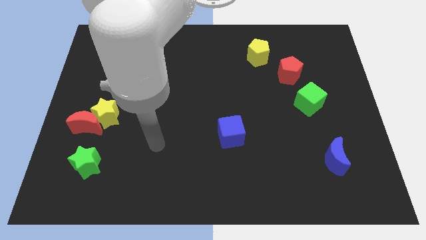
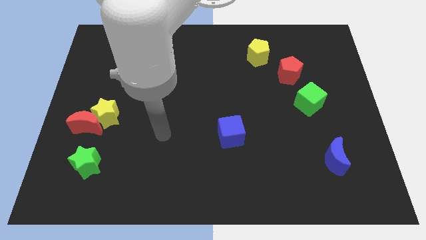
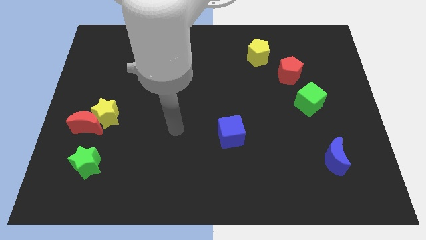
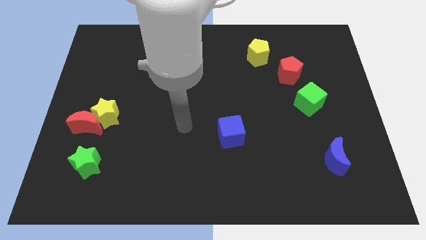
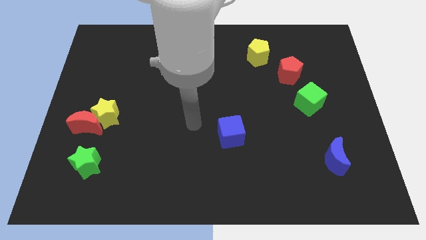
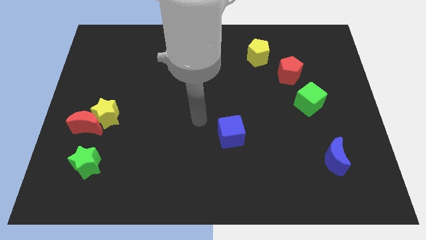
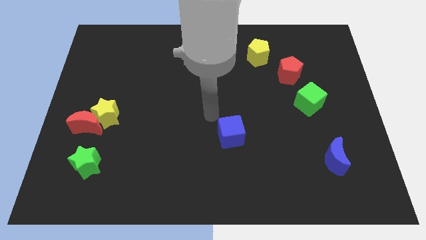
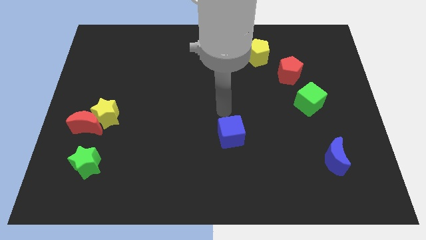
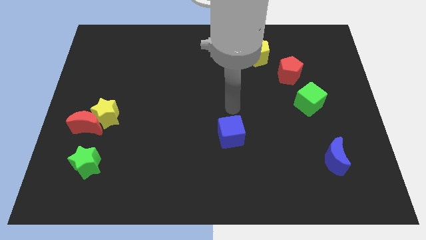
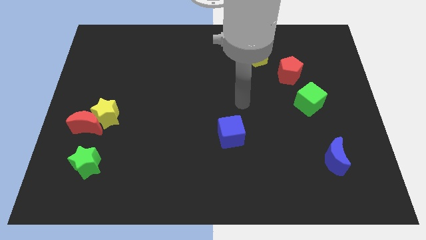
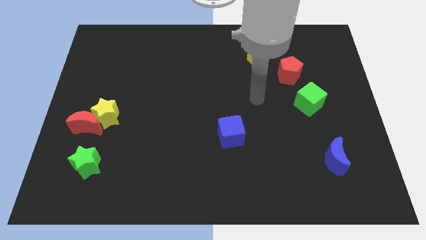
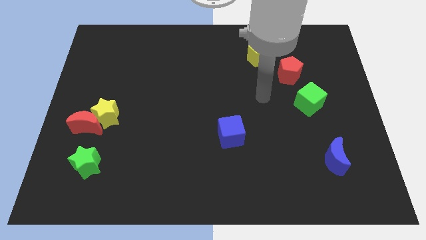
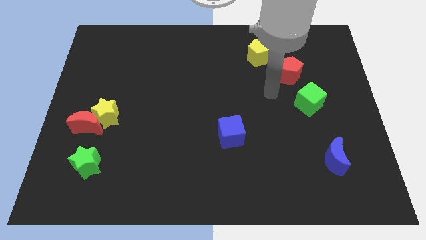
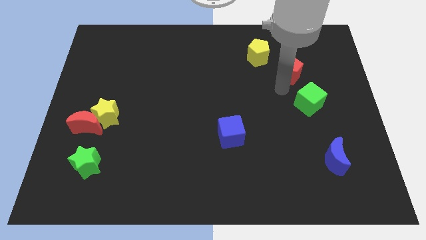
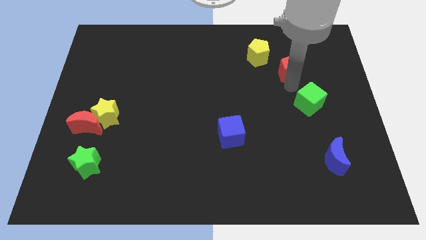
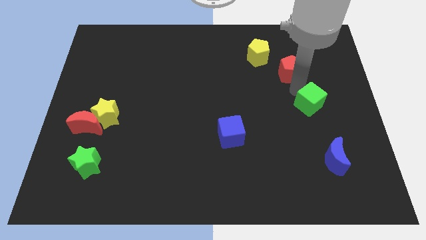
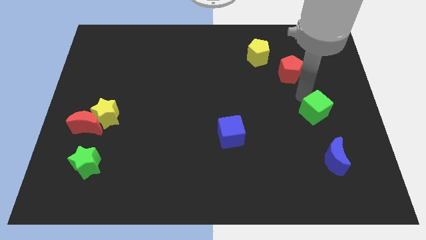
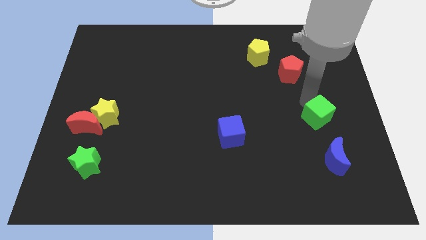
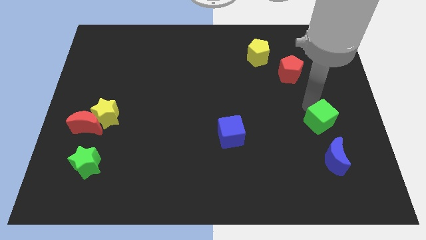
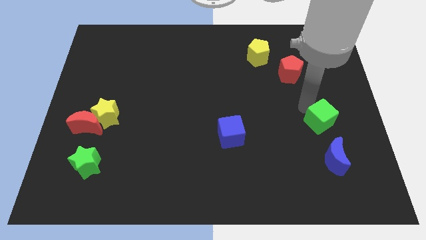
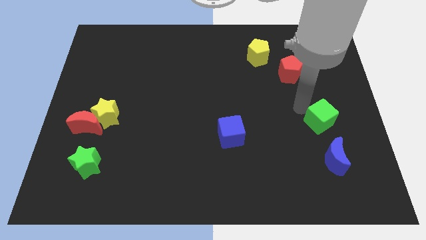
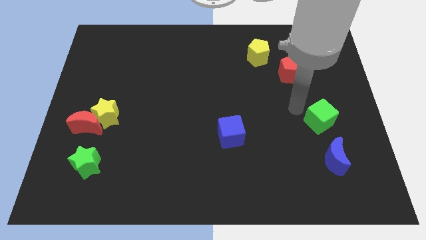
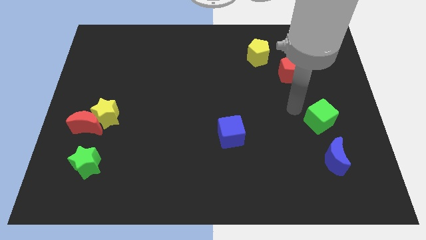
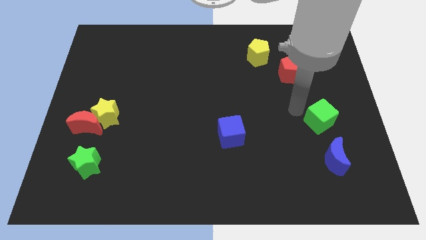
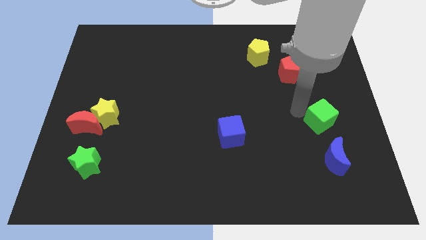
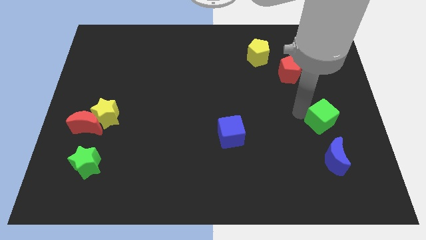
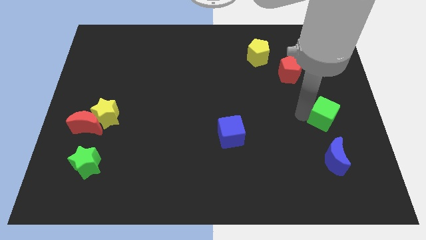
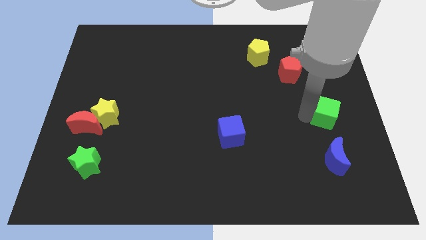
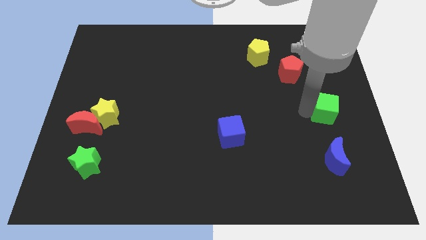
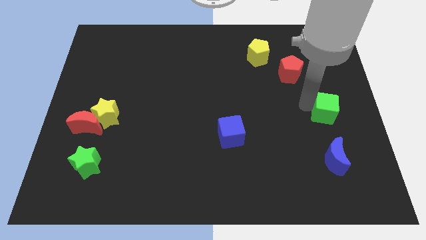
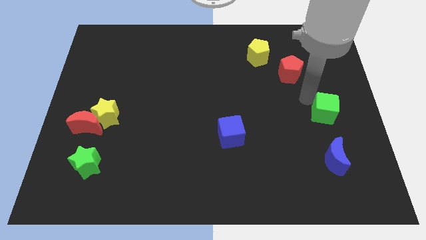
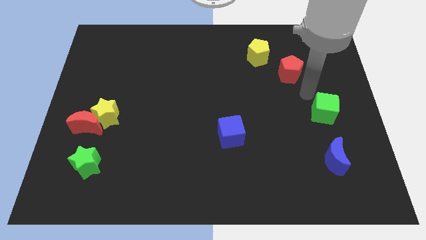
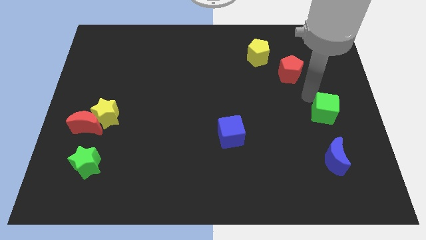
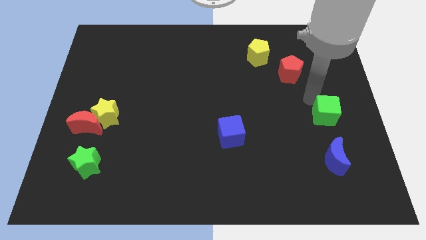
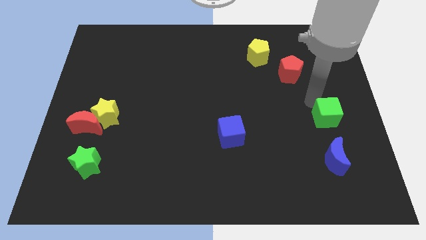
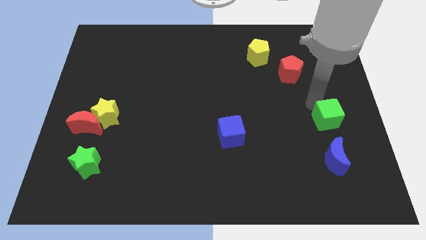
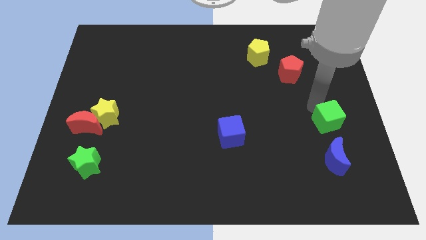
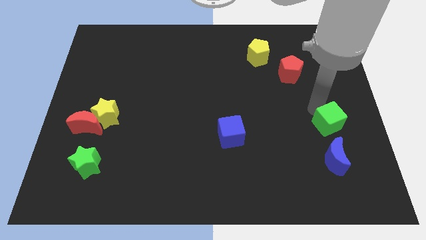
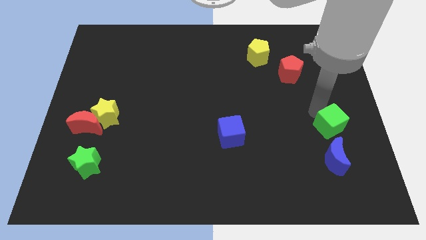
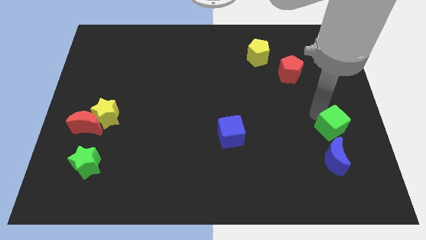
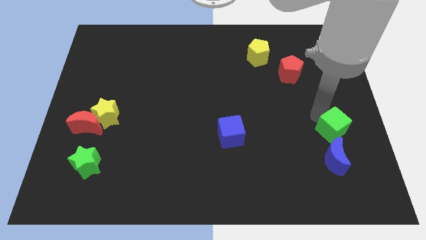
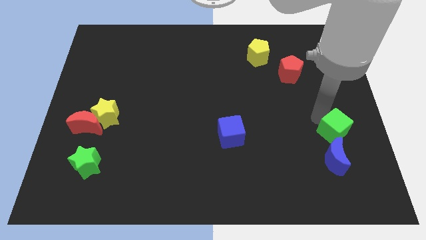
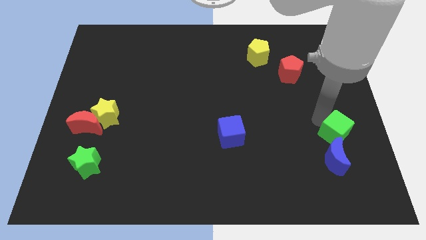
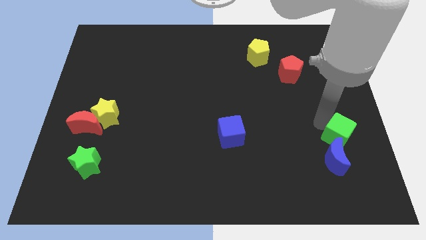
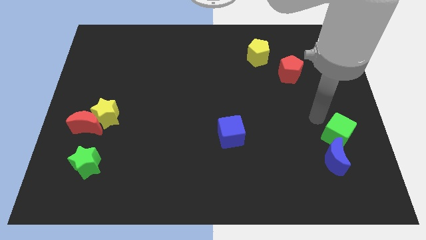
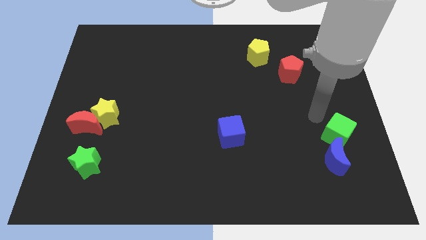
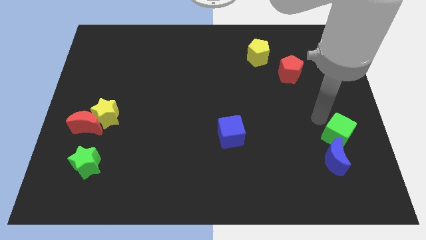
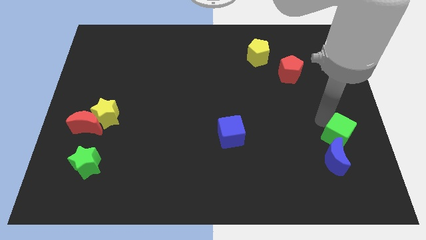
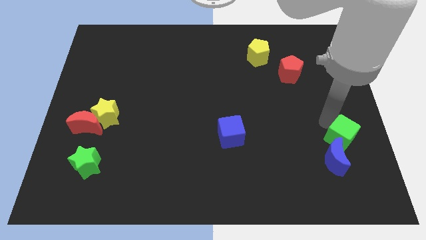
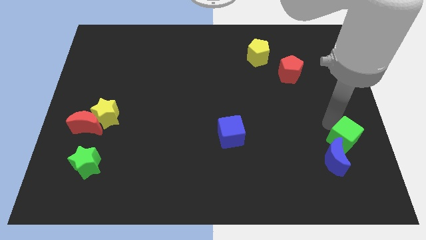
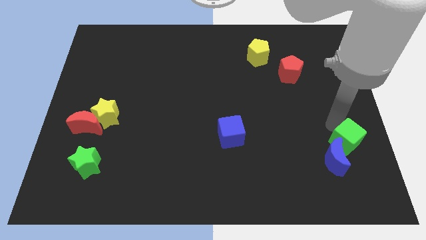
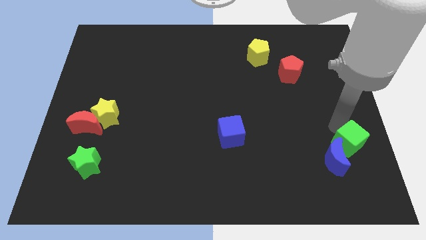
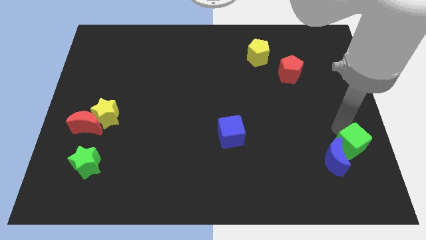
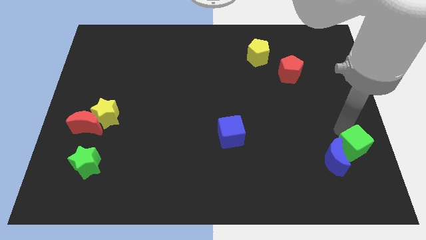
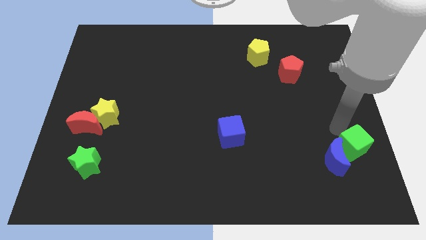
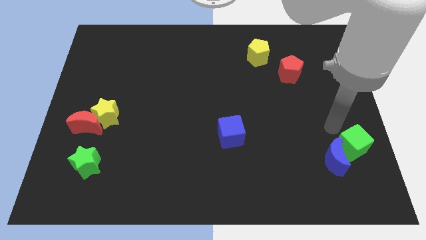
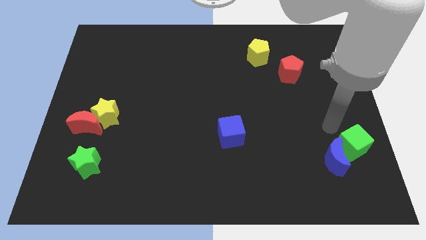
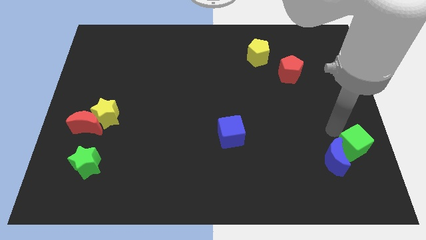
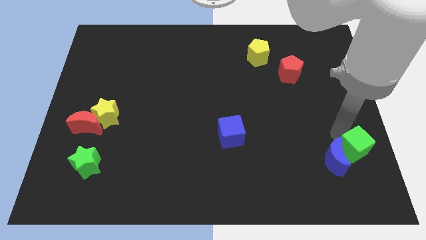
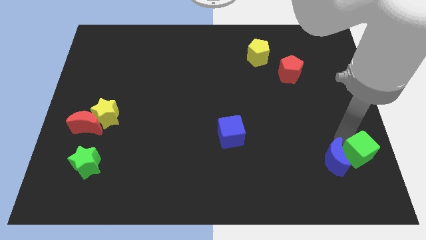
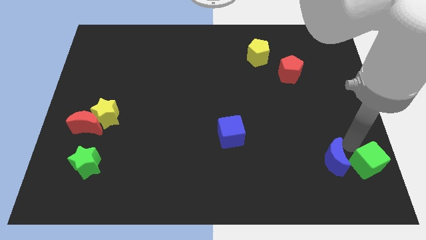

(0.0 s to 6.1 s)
push the green cube to the bottom right
